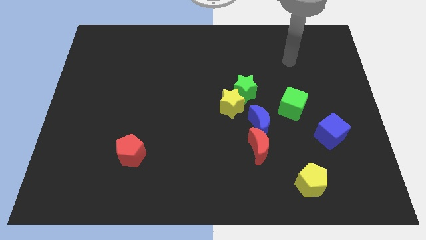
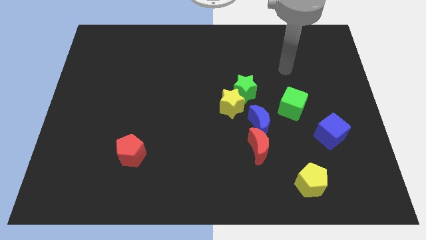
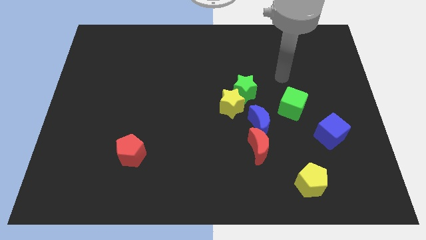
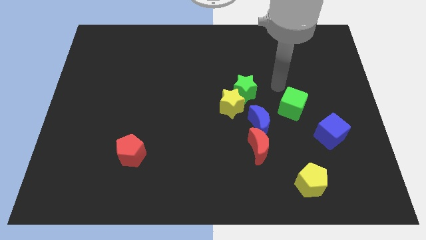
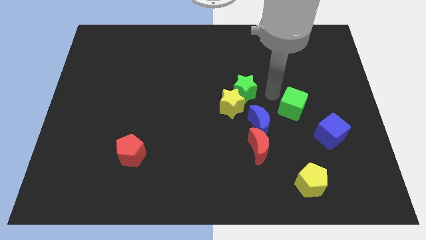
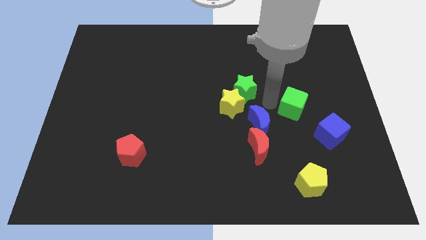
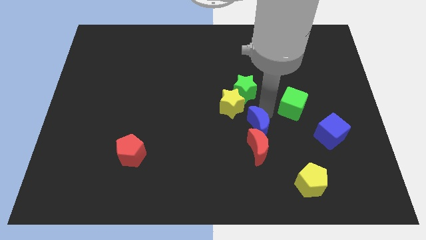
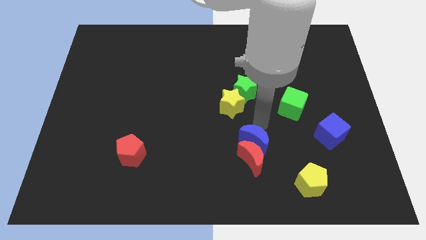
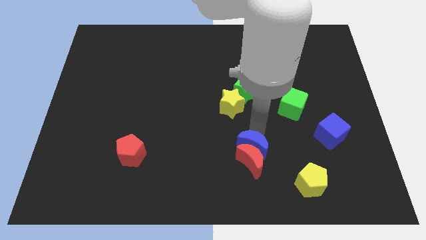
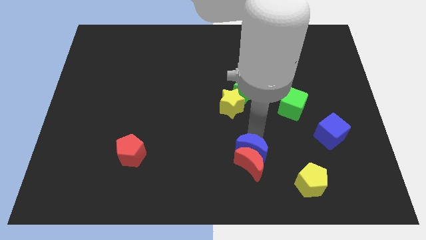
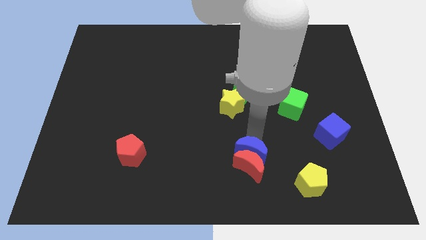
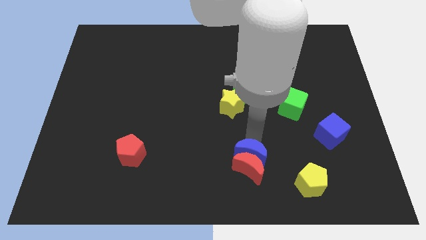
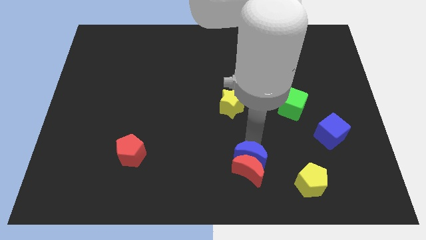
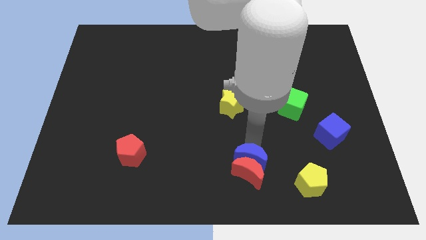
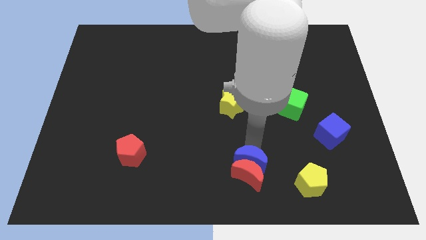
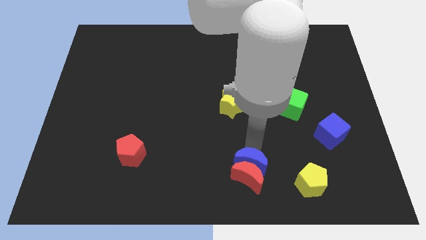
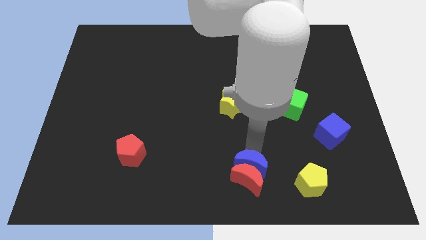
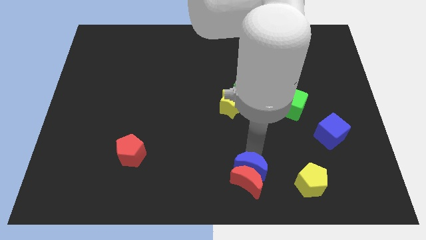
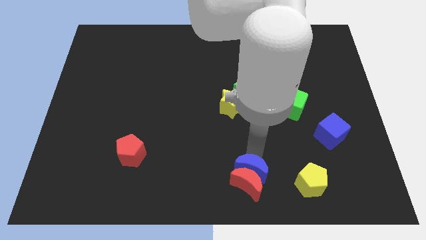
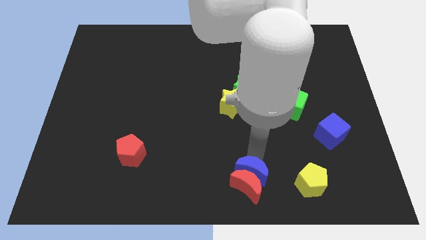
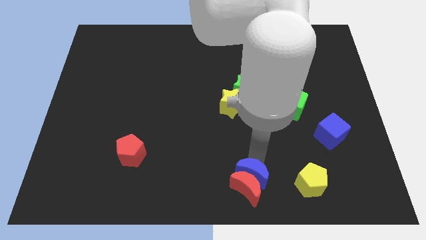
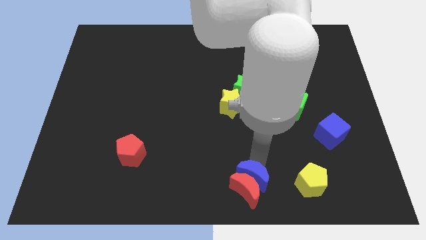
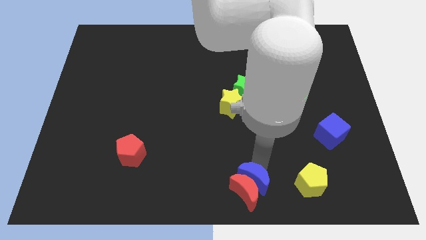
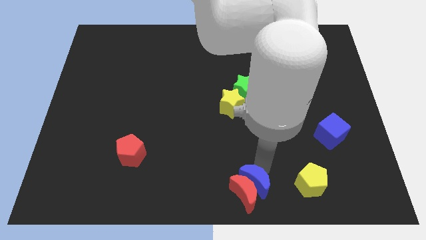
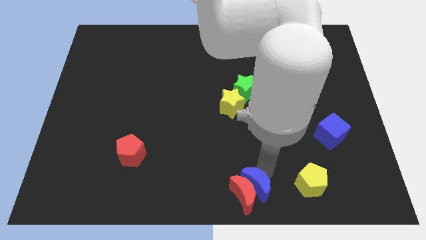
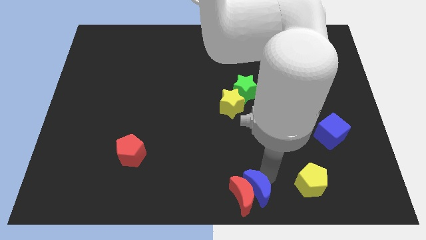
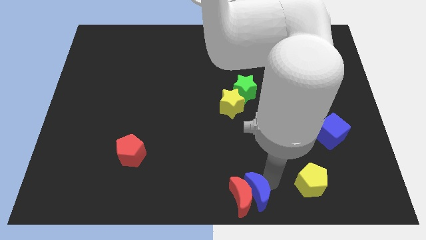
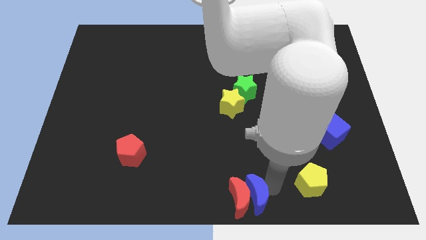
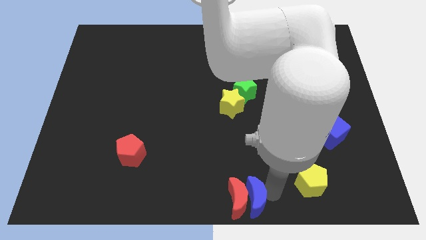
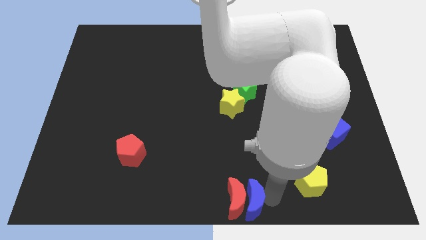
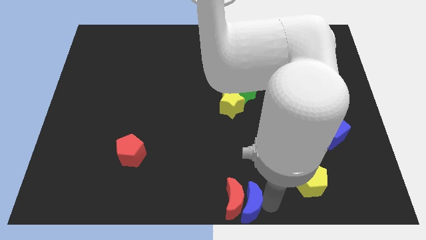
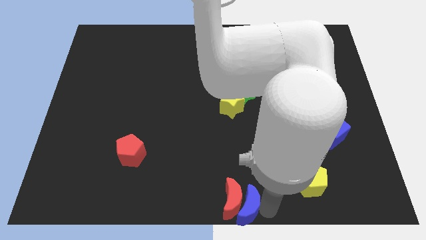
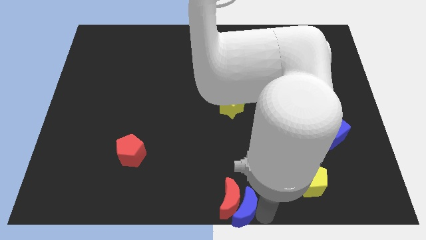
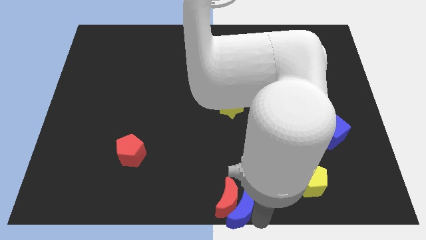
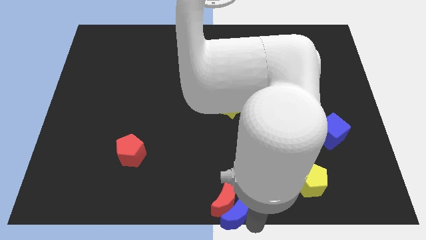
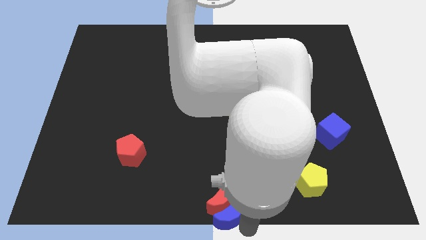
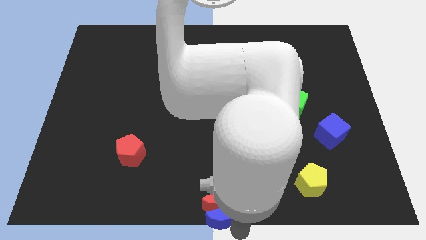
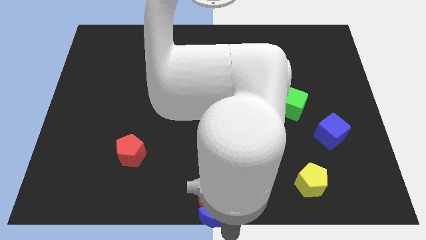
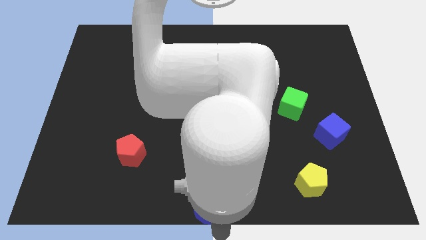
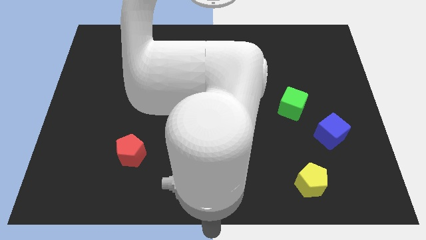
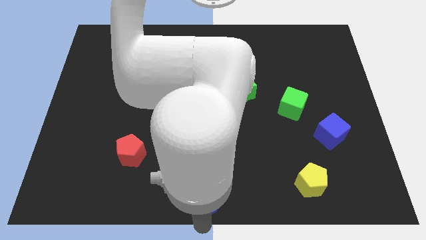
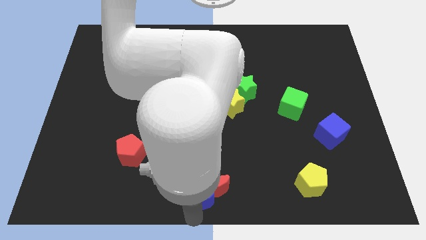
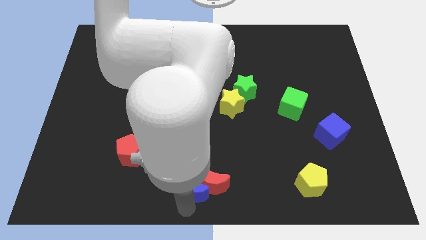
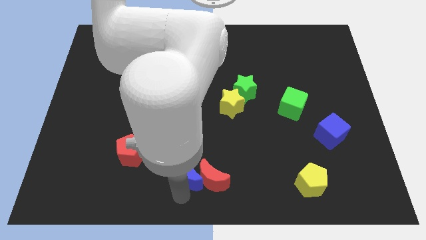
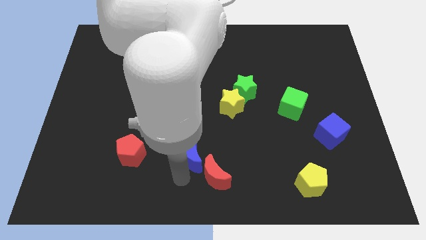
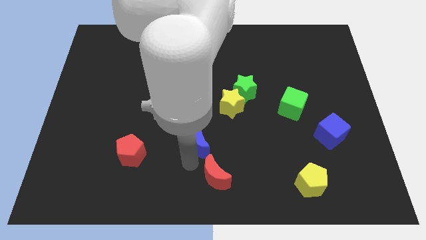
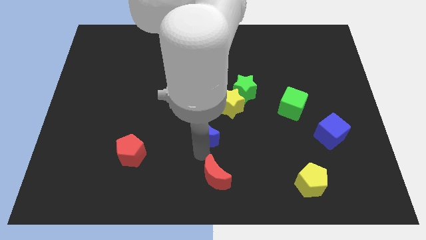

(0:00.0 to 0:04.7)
pull the red moon apart from the blue moon

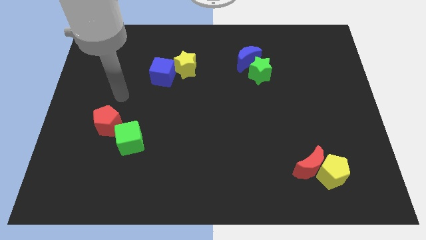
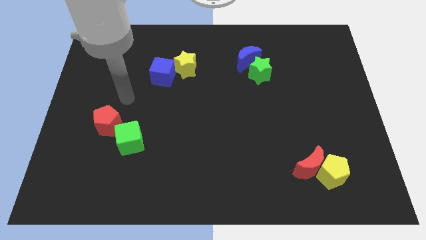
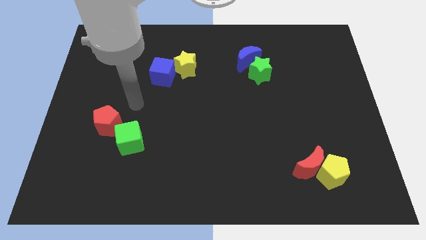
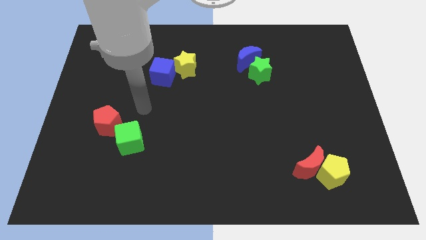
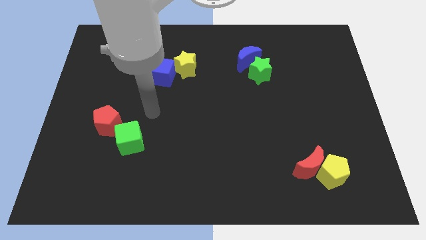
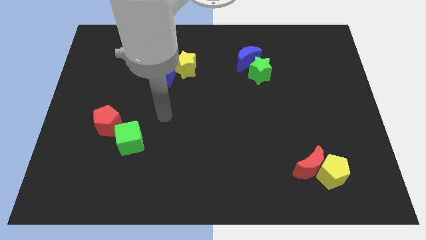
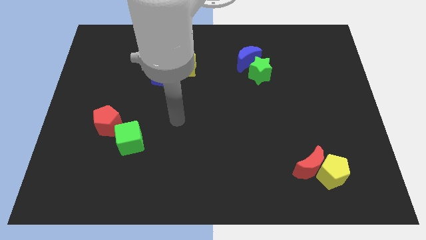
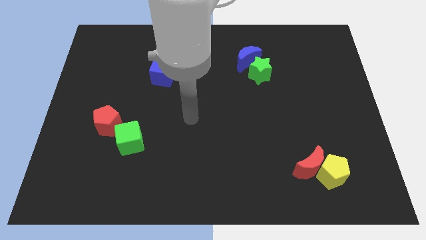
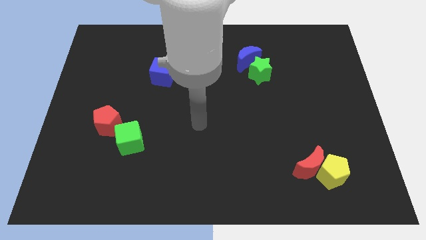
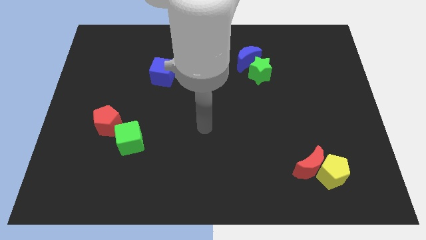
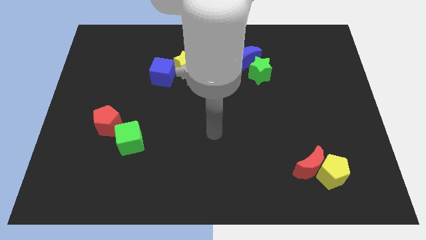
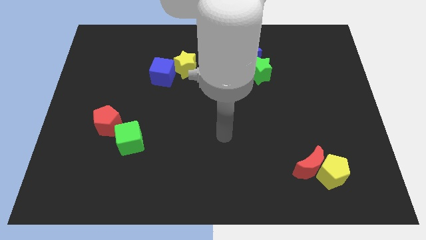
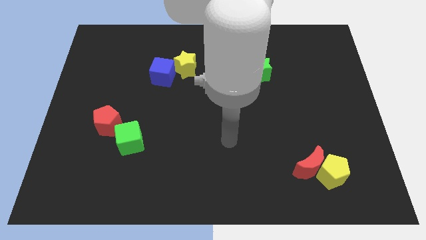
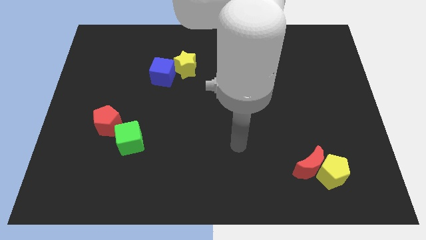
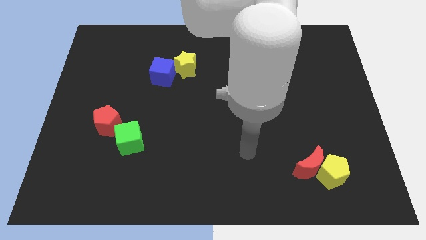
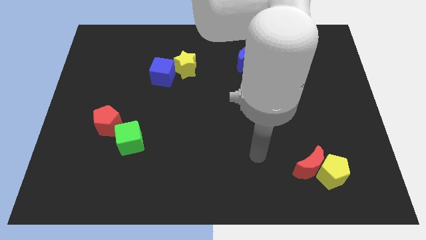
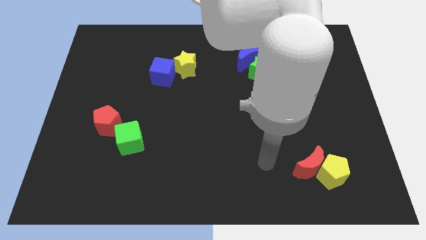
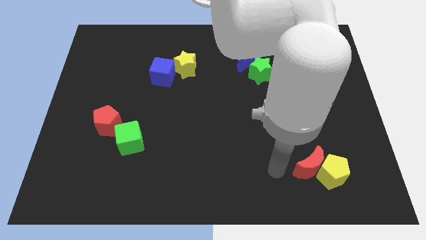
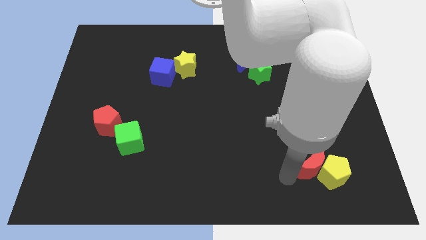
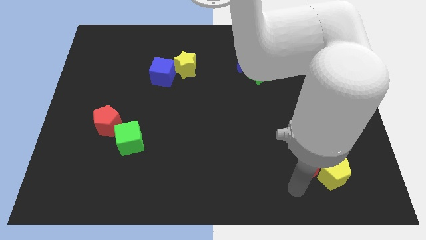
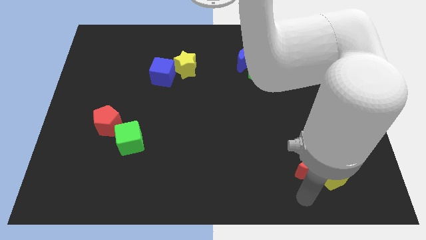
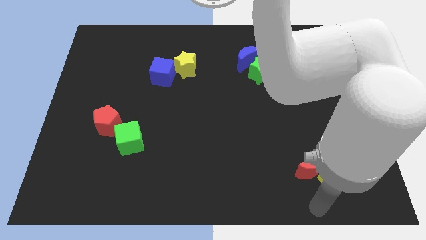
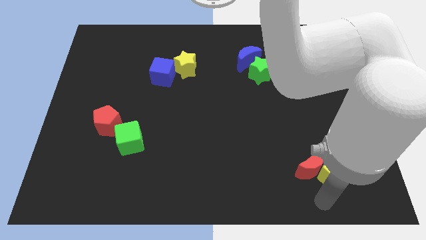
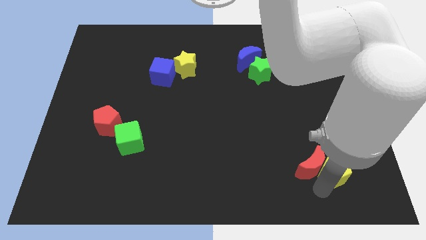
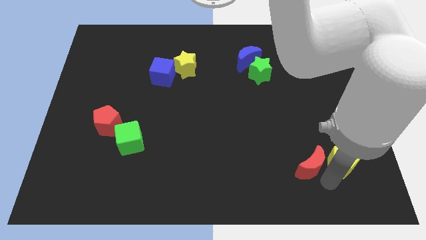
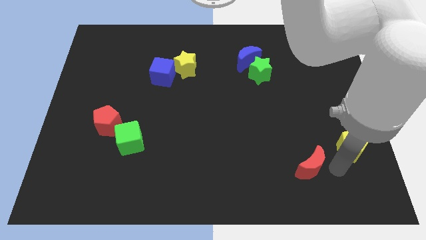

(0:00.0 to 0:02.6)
move the red moon away from the yellow pentagon

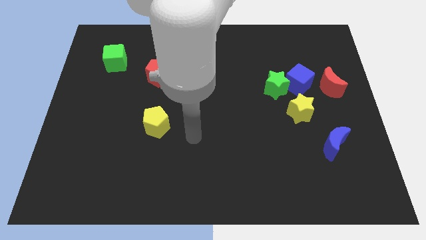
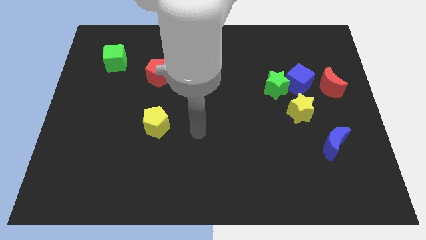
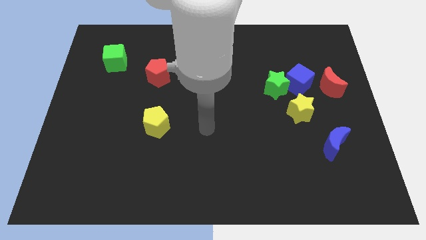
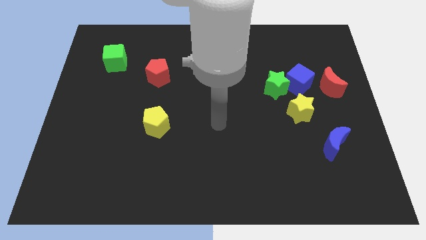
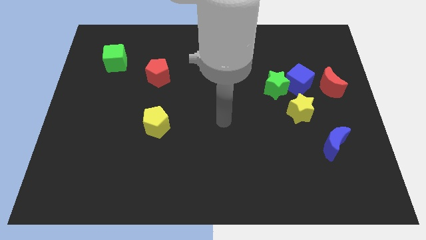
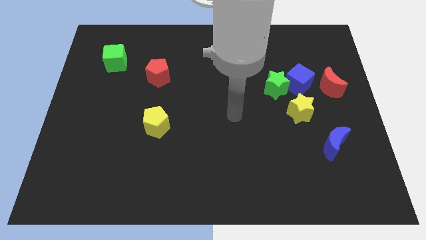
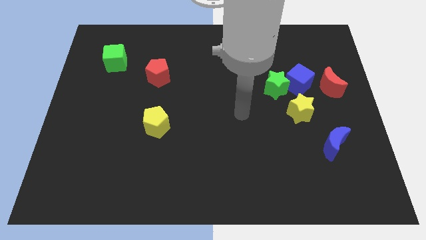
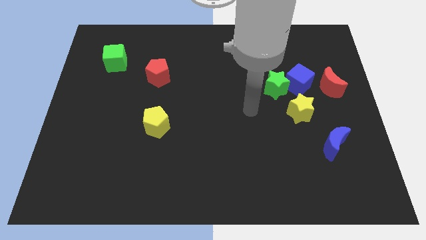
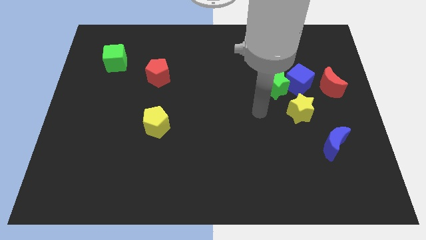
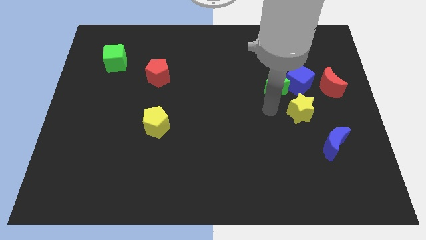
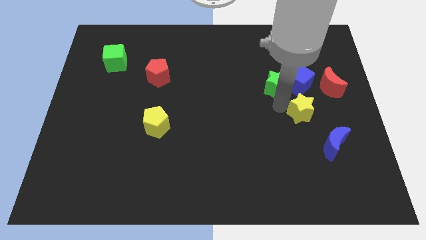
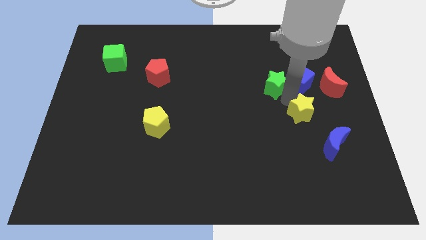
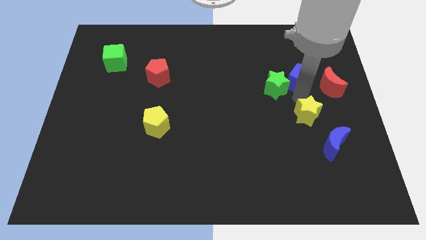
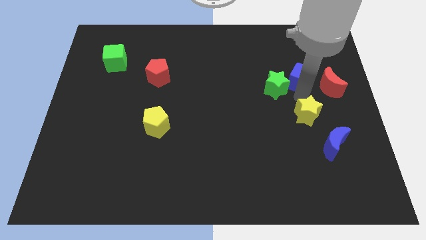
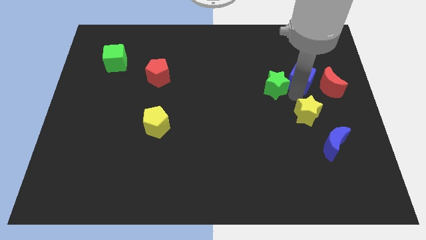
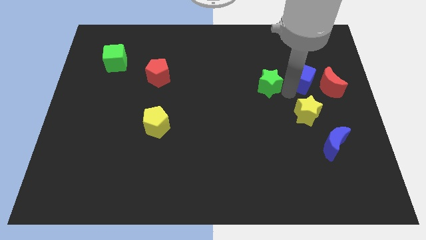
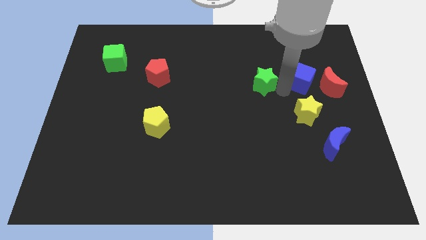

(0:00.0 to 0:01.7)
move the green star away from the blue cube and yellow star

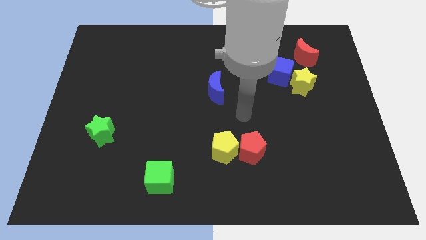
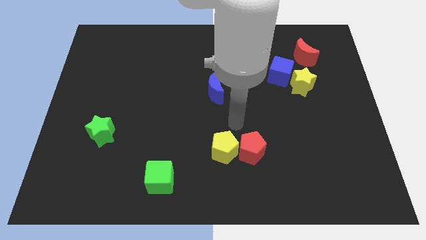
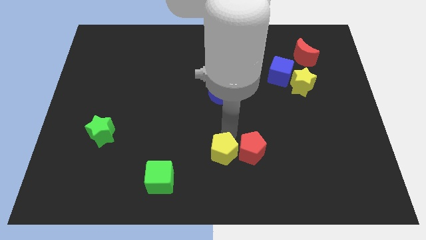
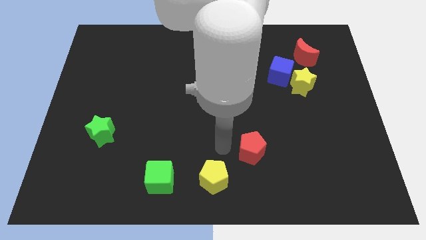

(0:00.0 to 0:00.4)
move the red pentagon away from the yellow pentagon

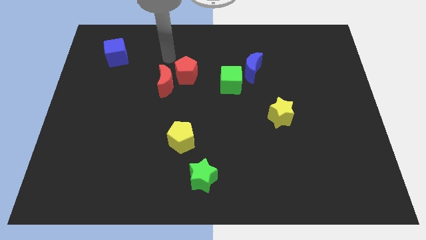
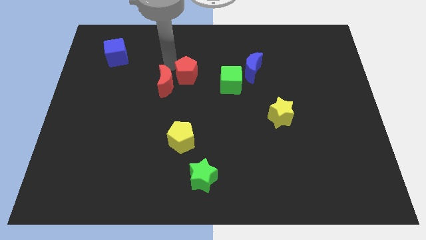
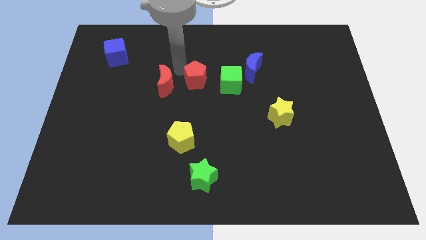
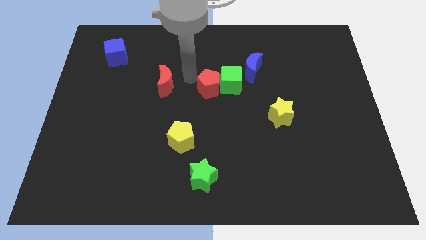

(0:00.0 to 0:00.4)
move the red moon away from the red pentagon
